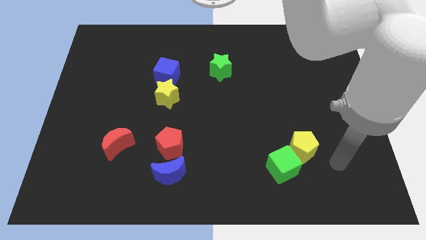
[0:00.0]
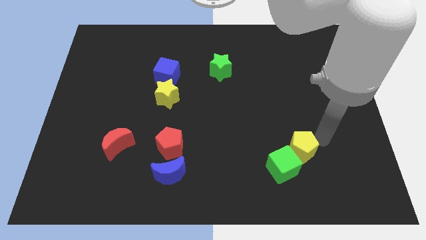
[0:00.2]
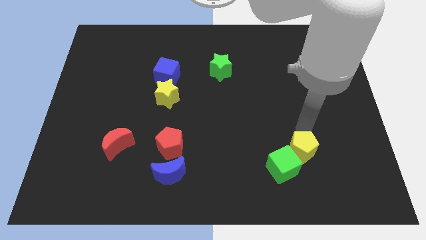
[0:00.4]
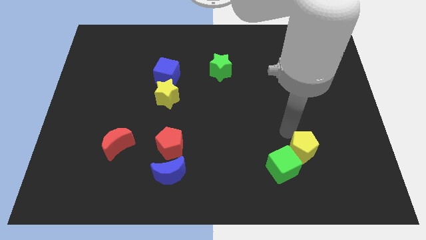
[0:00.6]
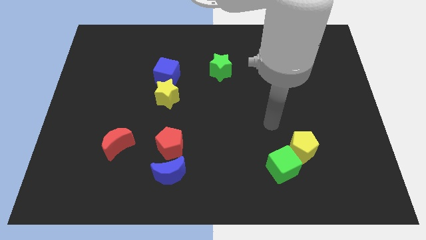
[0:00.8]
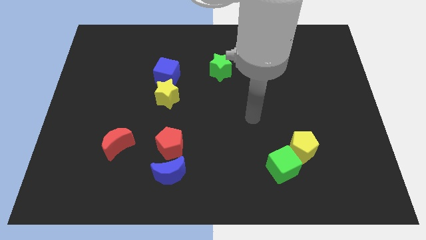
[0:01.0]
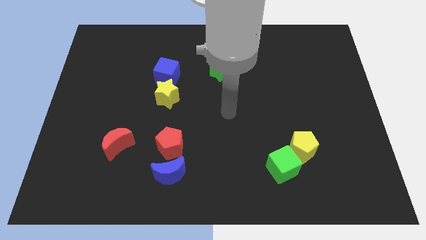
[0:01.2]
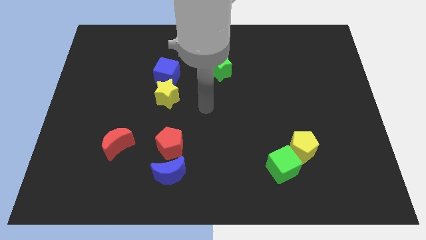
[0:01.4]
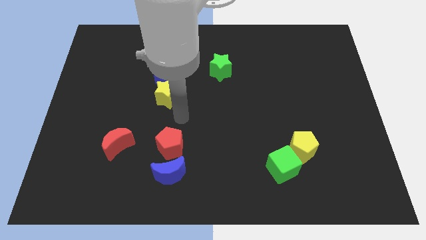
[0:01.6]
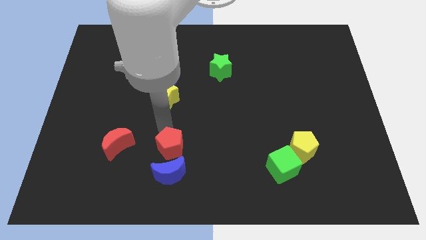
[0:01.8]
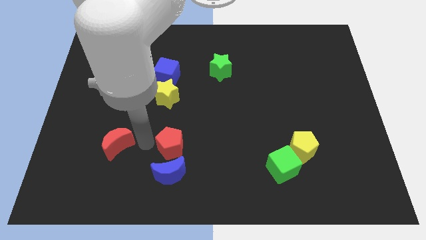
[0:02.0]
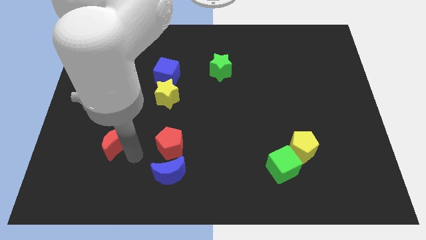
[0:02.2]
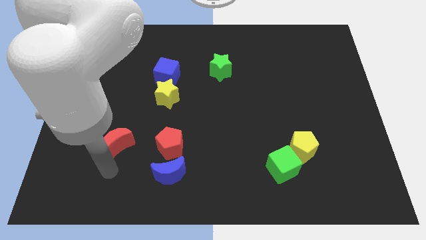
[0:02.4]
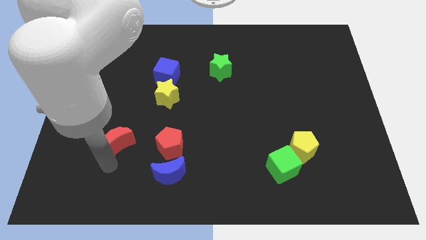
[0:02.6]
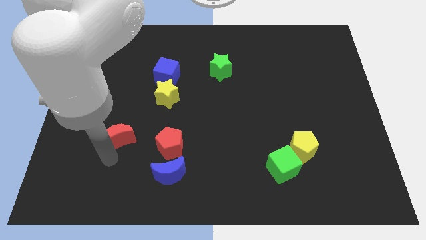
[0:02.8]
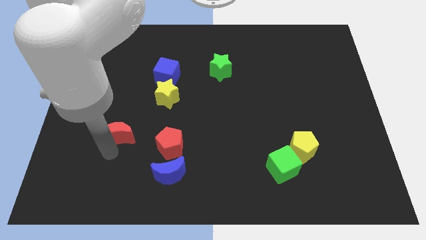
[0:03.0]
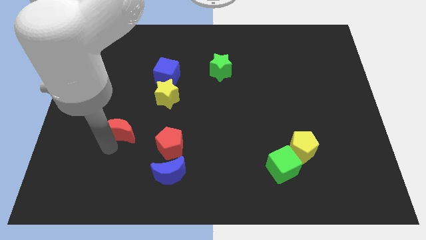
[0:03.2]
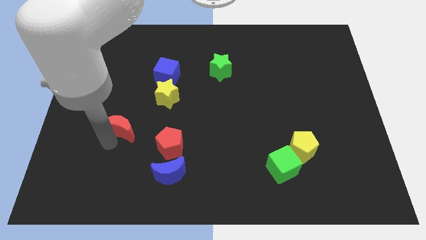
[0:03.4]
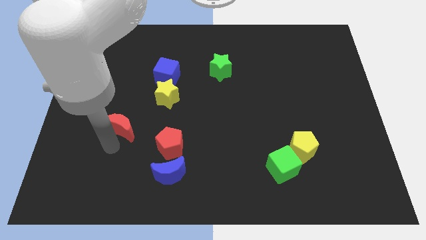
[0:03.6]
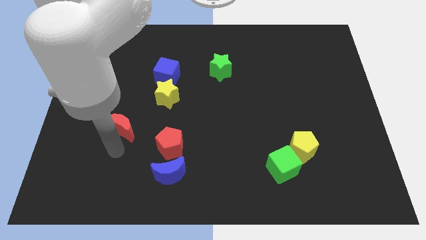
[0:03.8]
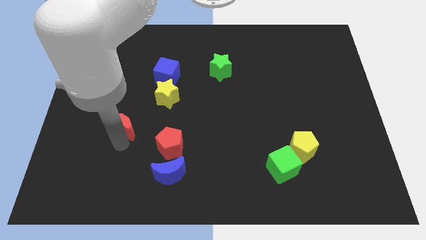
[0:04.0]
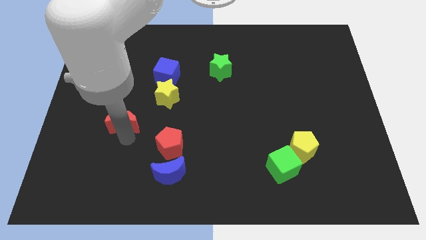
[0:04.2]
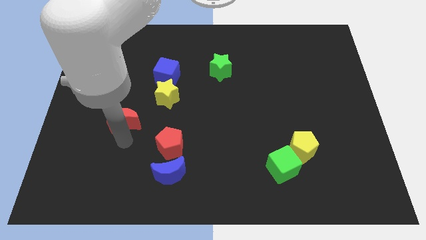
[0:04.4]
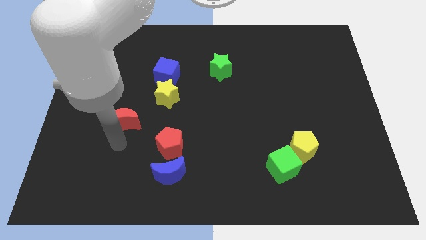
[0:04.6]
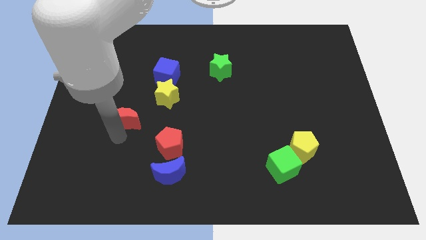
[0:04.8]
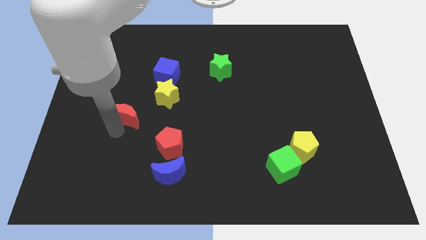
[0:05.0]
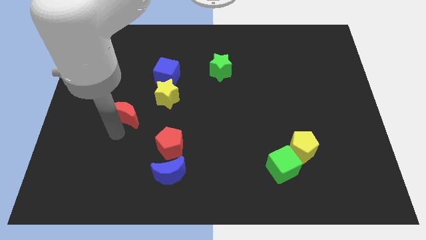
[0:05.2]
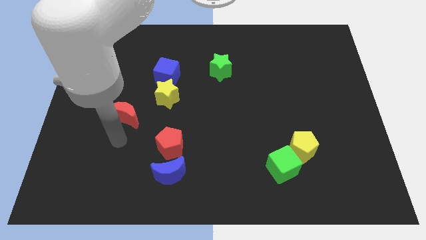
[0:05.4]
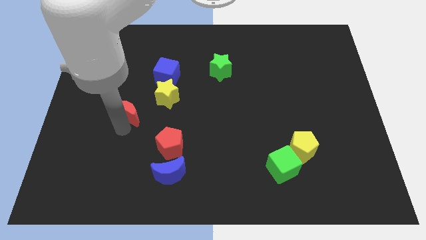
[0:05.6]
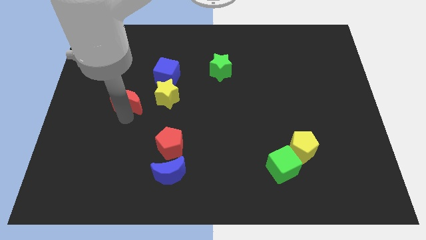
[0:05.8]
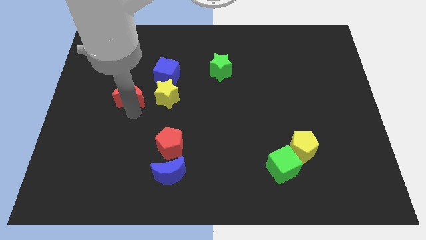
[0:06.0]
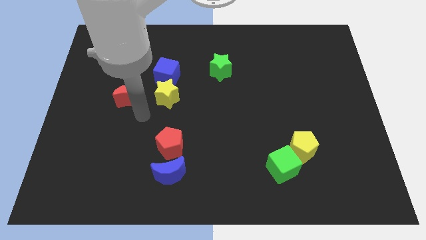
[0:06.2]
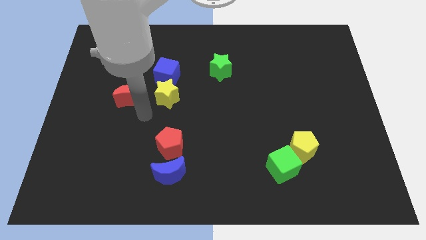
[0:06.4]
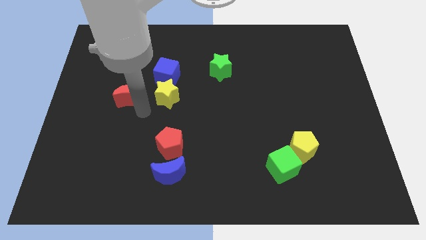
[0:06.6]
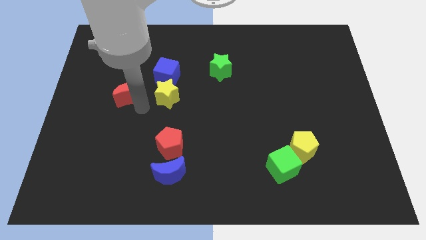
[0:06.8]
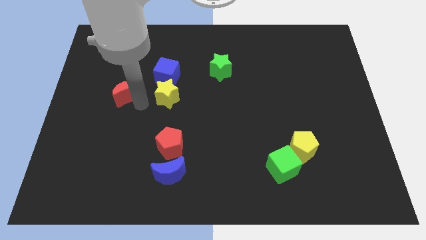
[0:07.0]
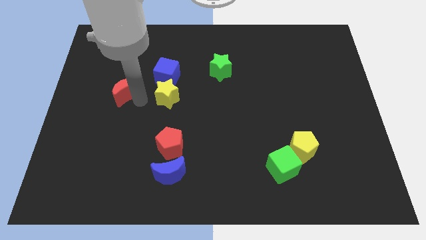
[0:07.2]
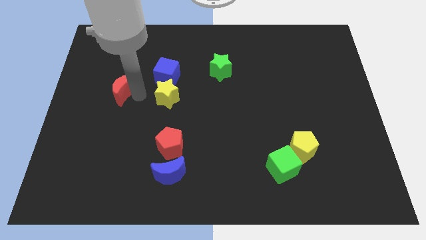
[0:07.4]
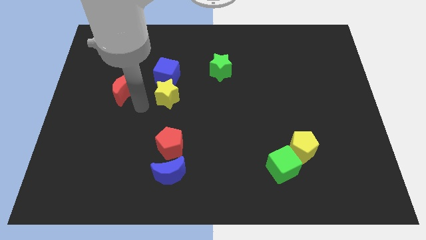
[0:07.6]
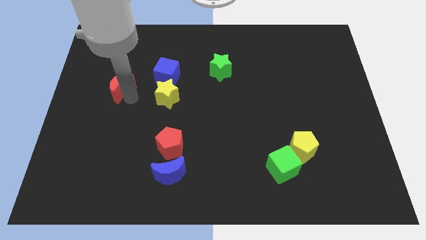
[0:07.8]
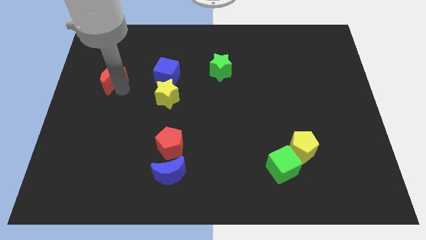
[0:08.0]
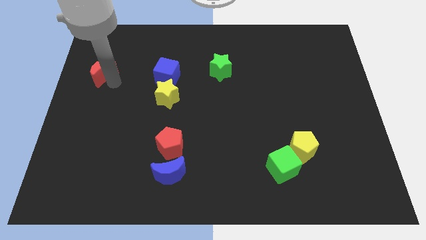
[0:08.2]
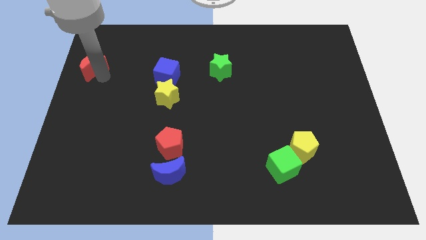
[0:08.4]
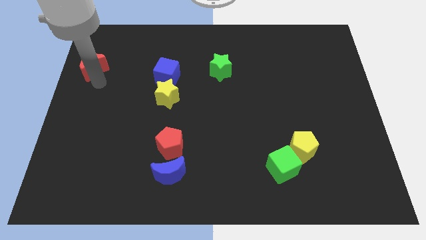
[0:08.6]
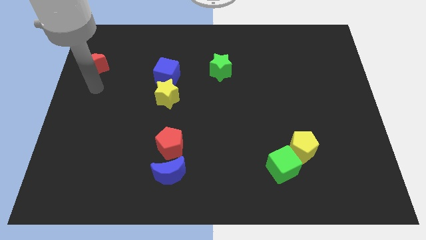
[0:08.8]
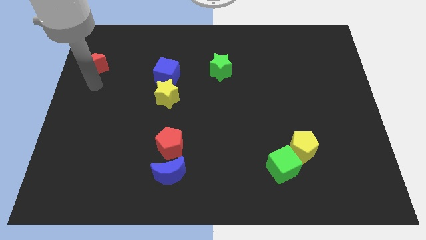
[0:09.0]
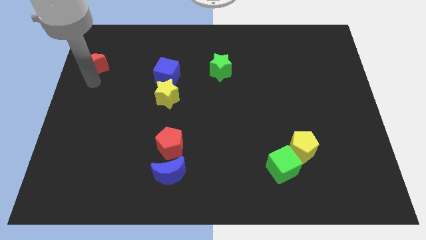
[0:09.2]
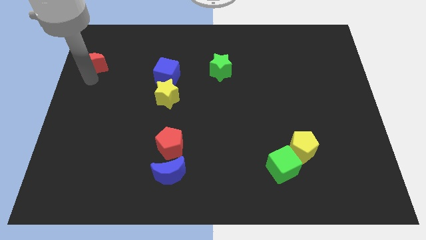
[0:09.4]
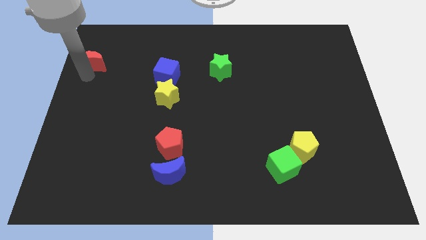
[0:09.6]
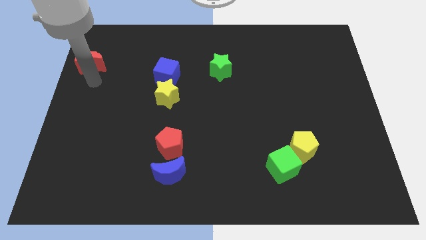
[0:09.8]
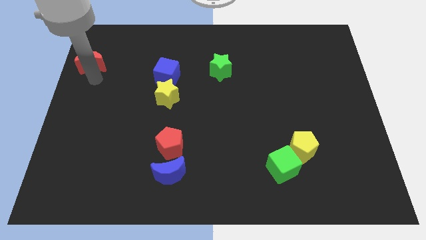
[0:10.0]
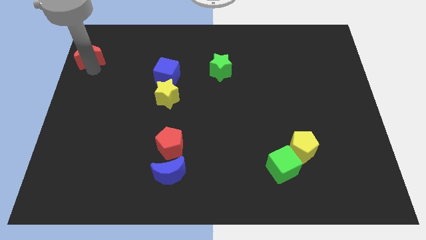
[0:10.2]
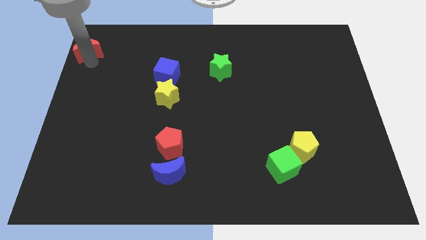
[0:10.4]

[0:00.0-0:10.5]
move the red moon to the top left of the board
